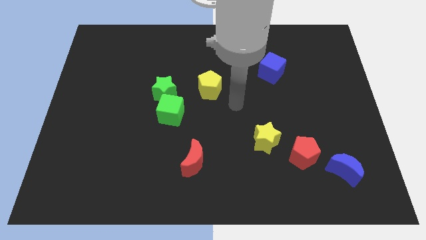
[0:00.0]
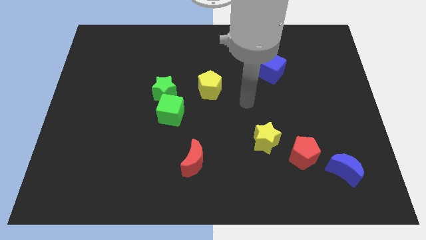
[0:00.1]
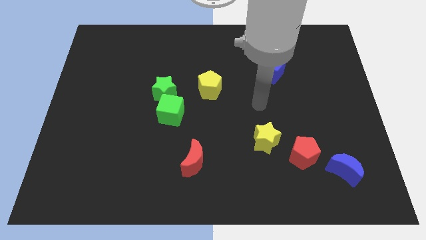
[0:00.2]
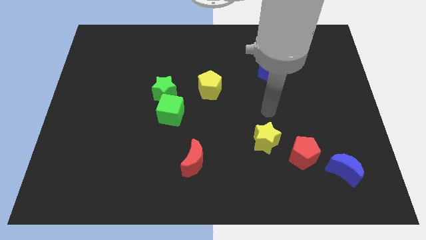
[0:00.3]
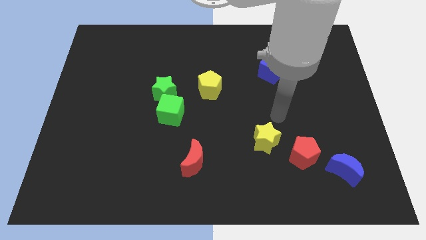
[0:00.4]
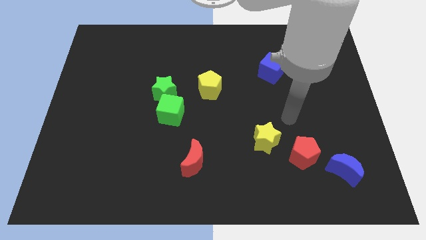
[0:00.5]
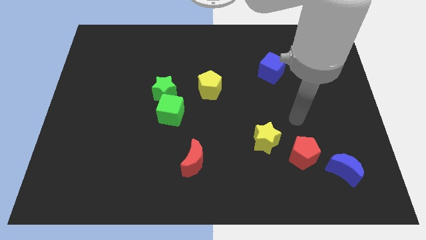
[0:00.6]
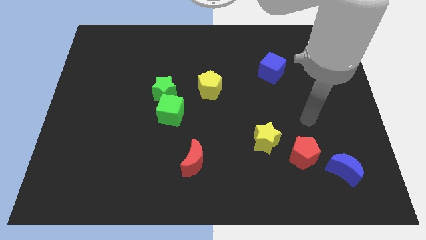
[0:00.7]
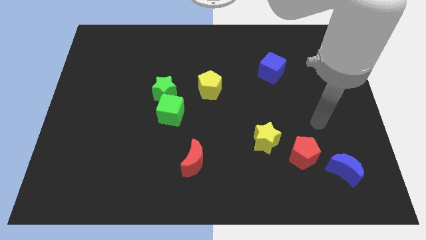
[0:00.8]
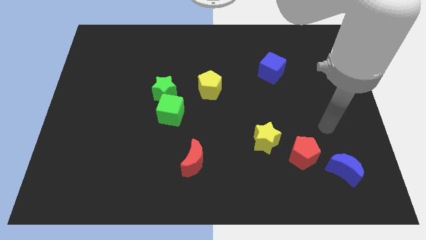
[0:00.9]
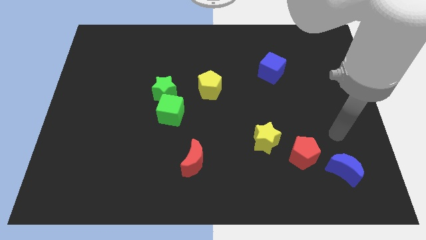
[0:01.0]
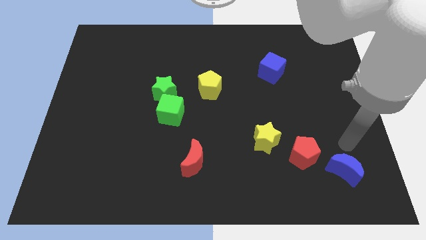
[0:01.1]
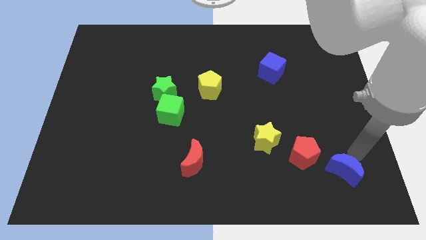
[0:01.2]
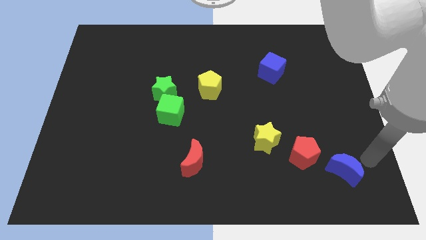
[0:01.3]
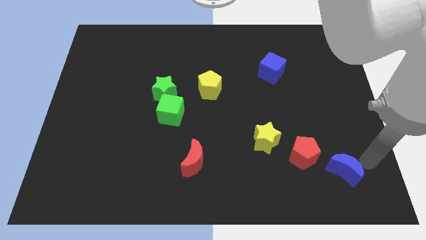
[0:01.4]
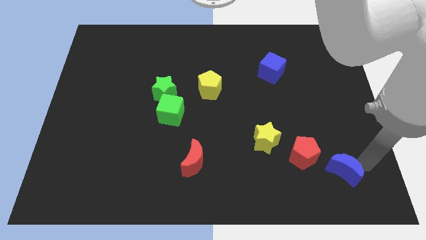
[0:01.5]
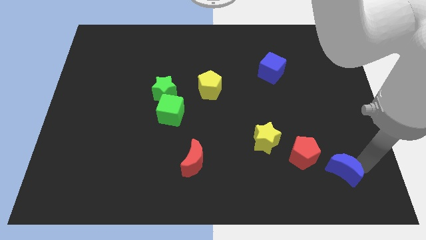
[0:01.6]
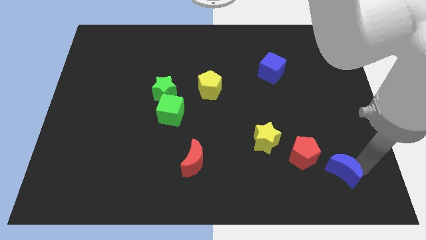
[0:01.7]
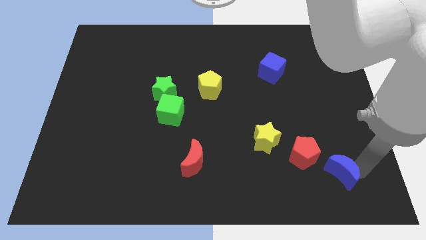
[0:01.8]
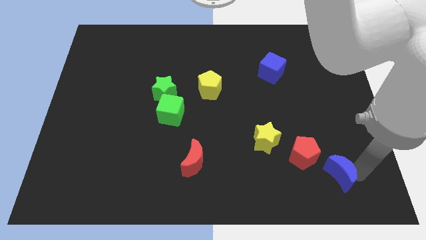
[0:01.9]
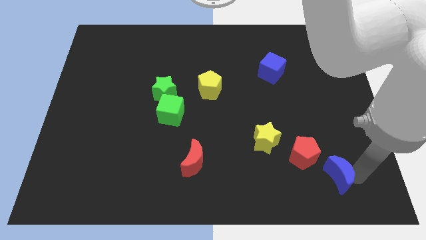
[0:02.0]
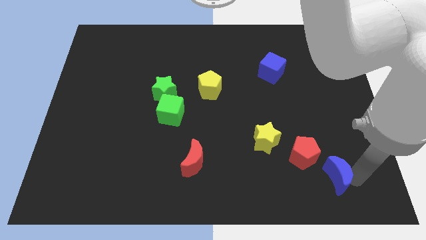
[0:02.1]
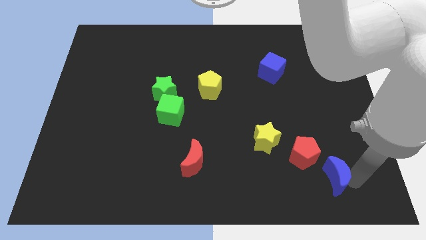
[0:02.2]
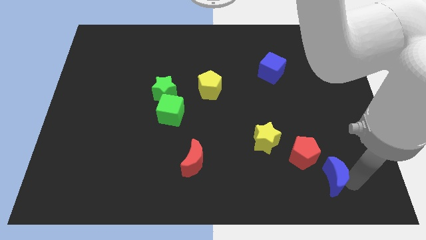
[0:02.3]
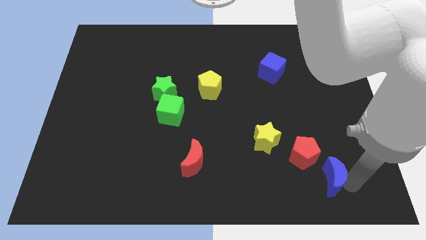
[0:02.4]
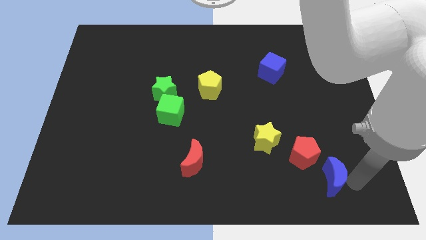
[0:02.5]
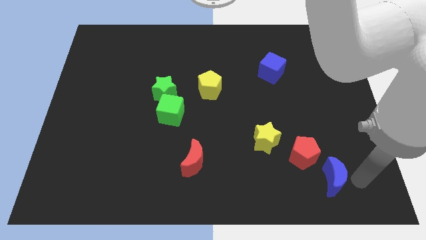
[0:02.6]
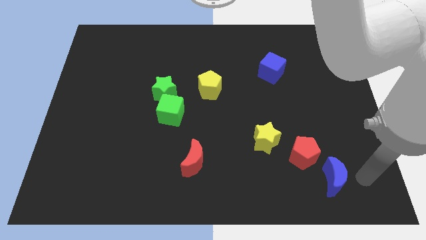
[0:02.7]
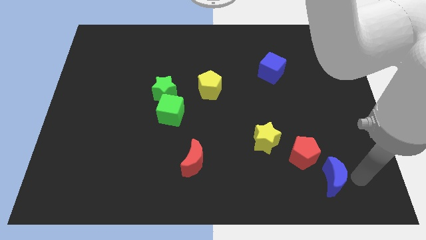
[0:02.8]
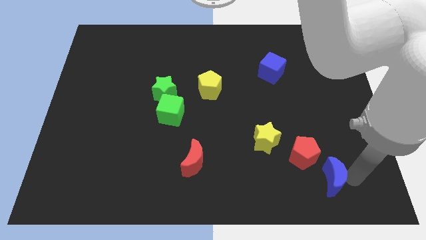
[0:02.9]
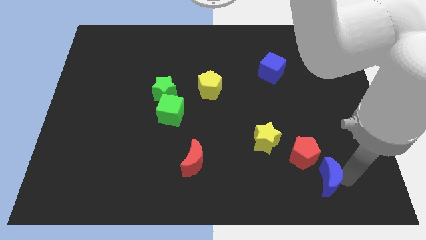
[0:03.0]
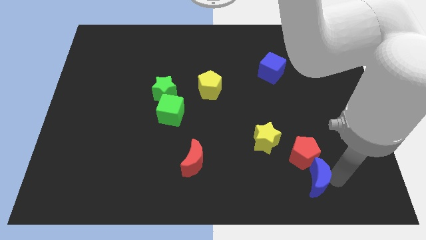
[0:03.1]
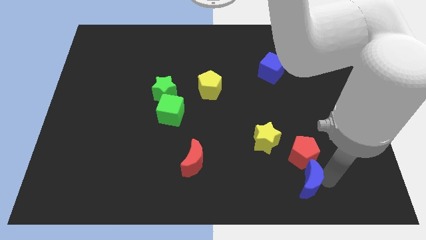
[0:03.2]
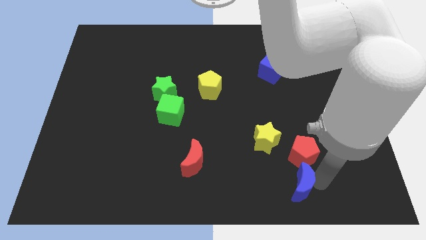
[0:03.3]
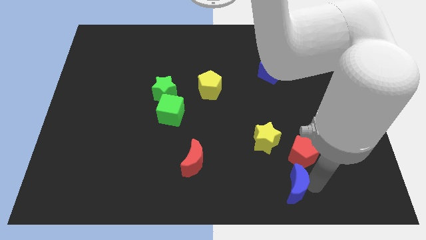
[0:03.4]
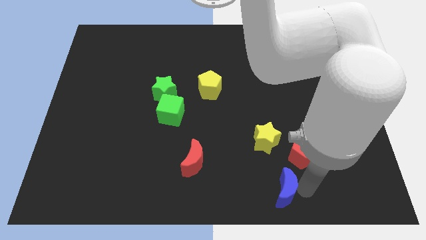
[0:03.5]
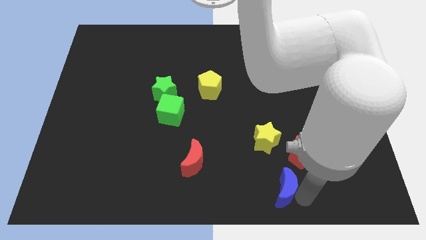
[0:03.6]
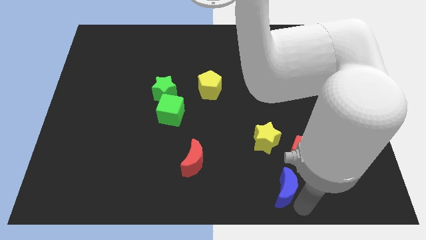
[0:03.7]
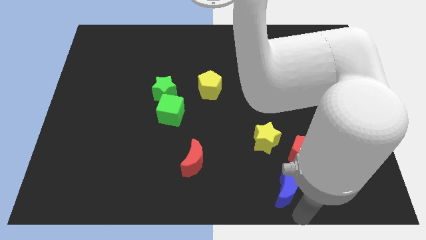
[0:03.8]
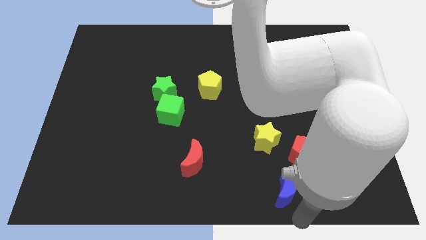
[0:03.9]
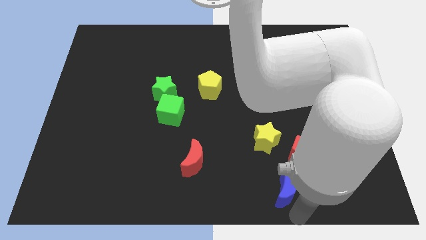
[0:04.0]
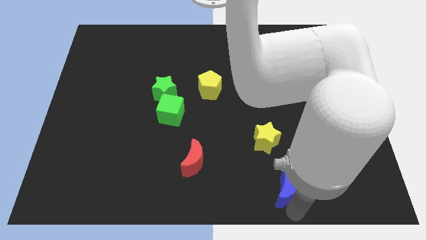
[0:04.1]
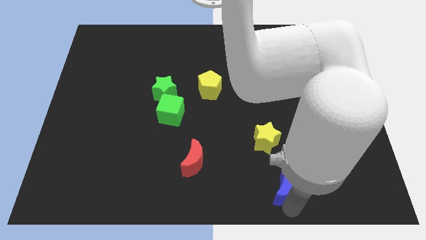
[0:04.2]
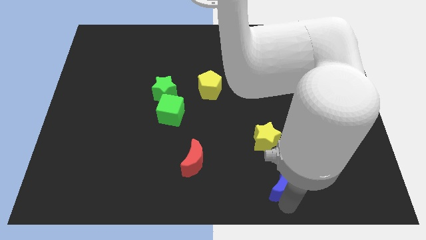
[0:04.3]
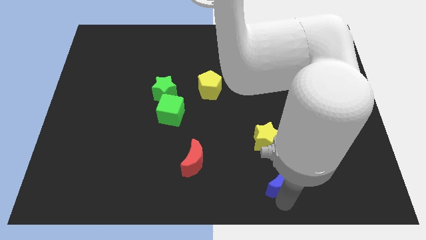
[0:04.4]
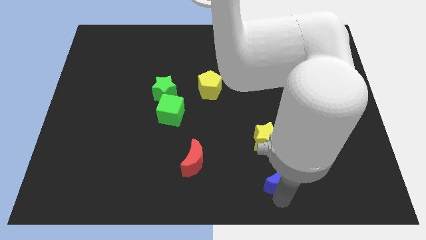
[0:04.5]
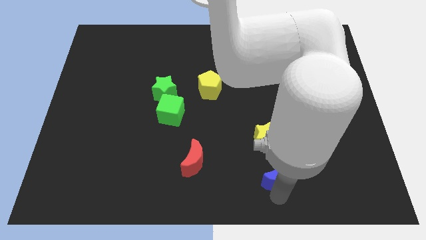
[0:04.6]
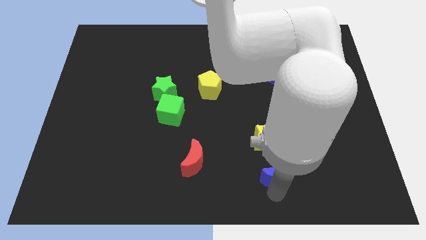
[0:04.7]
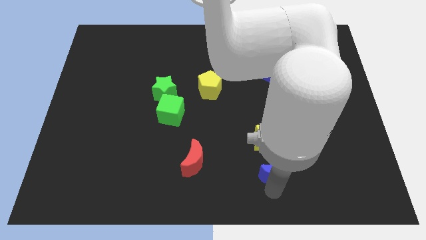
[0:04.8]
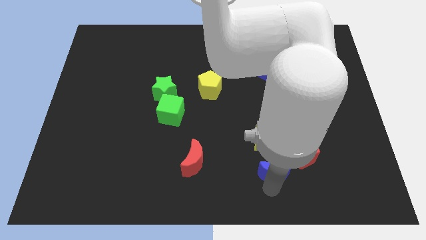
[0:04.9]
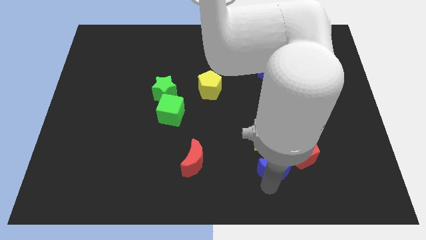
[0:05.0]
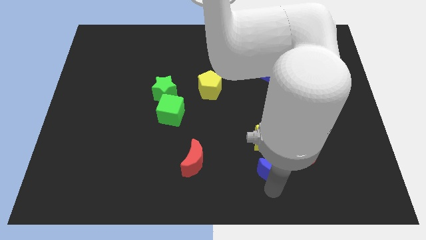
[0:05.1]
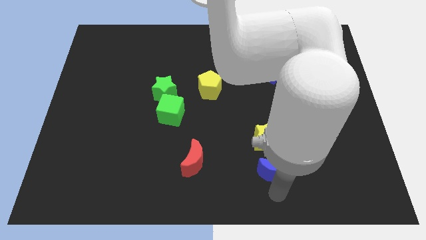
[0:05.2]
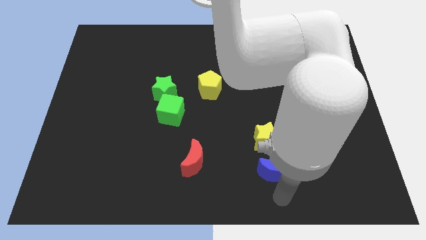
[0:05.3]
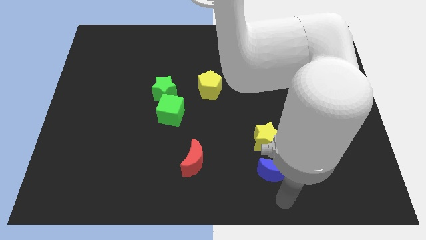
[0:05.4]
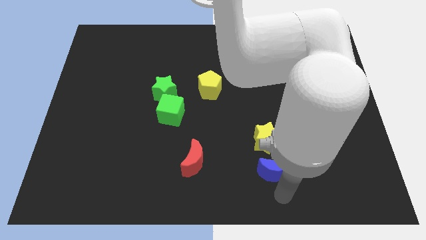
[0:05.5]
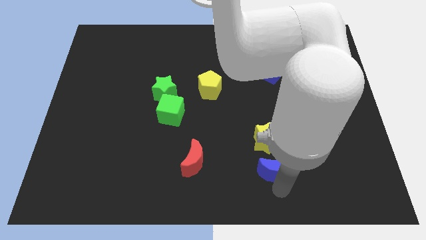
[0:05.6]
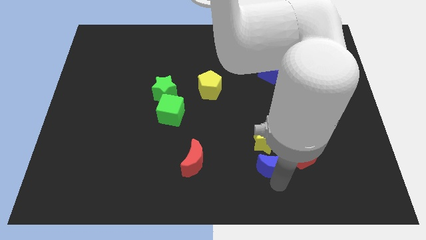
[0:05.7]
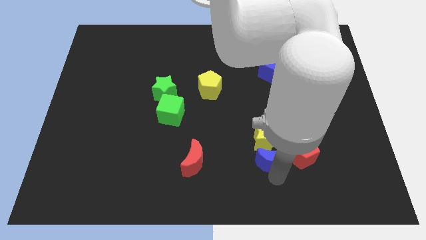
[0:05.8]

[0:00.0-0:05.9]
put the blue moon towards the yellow star

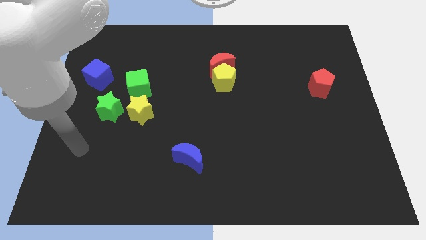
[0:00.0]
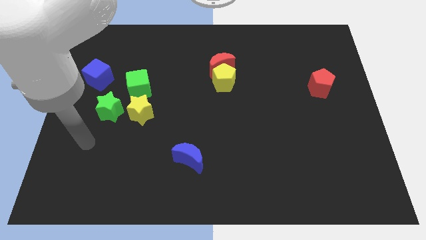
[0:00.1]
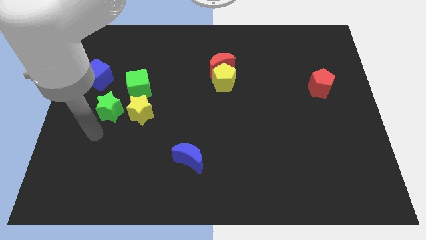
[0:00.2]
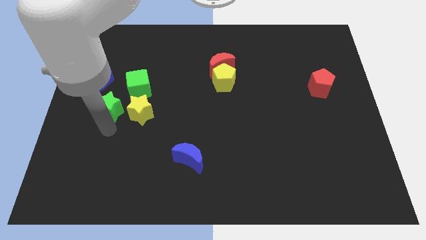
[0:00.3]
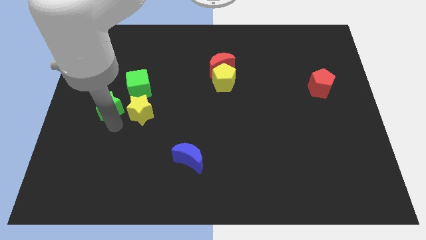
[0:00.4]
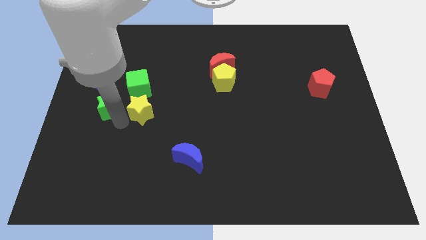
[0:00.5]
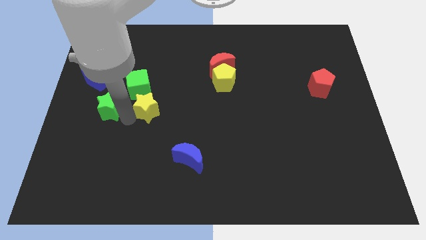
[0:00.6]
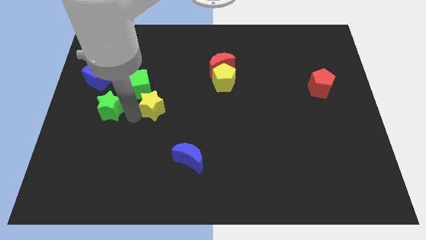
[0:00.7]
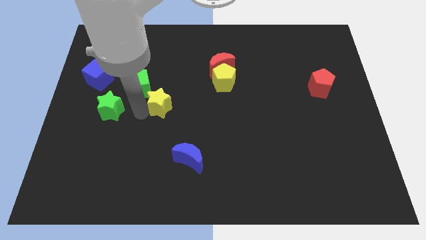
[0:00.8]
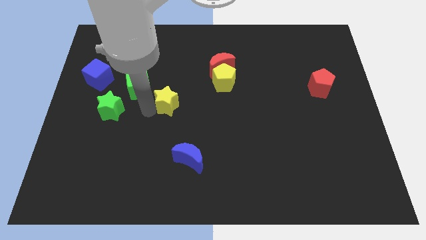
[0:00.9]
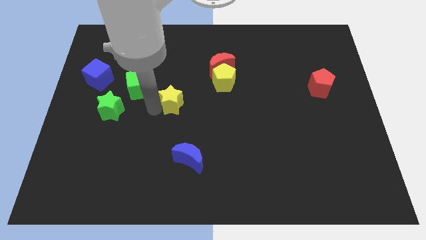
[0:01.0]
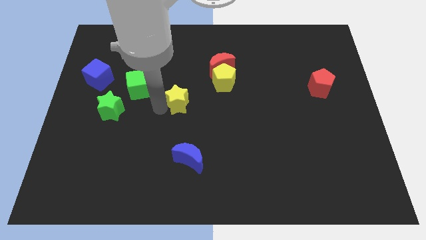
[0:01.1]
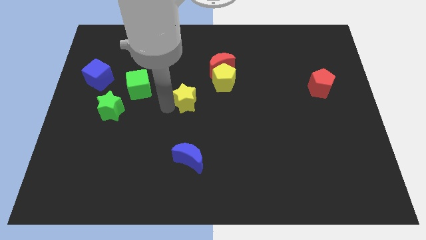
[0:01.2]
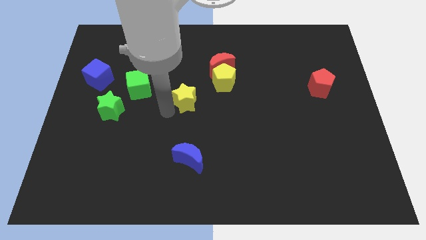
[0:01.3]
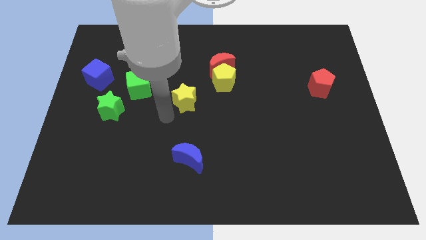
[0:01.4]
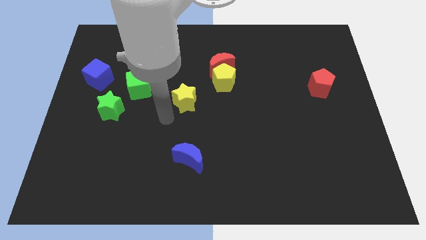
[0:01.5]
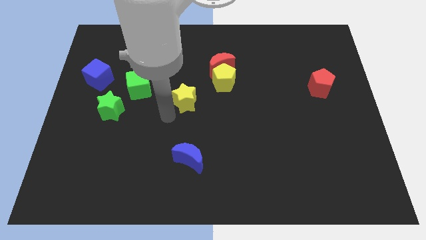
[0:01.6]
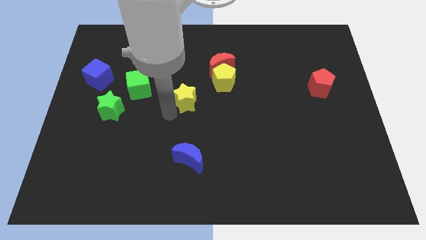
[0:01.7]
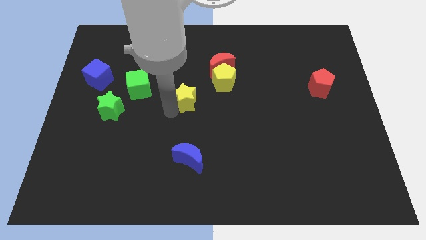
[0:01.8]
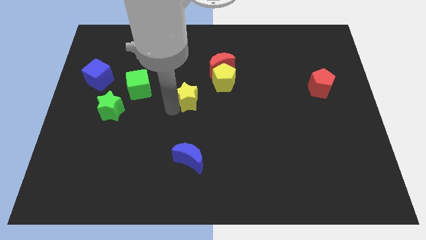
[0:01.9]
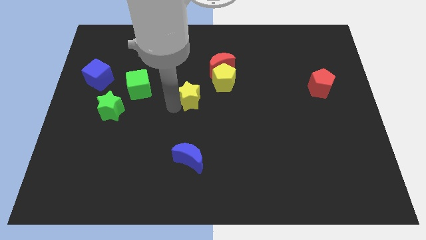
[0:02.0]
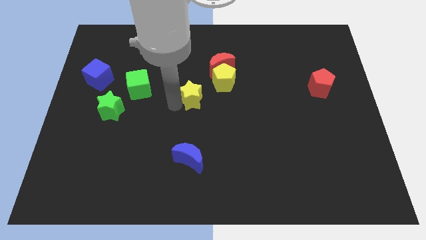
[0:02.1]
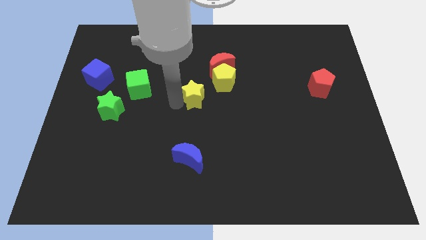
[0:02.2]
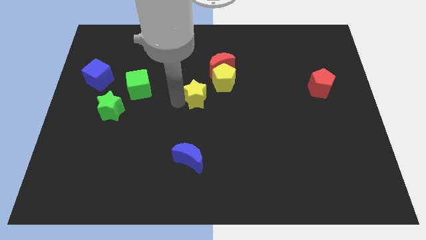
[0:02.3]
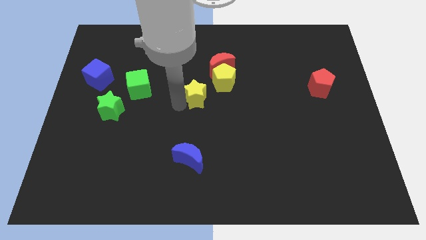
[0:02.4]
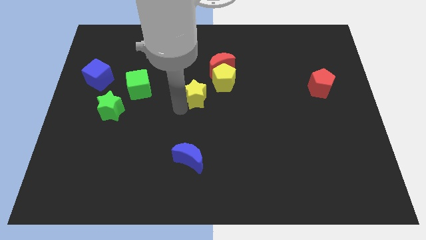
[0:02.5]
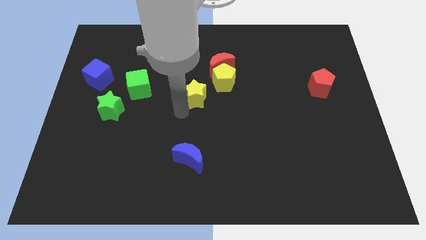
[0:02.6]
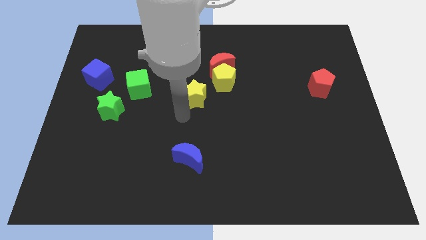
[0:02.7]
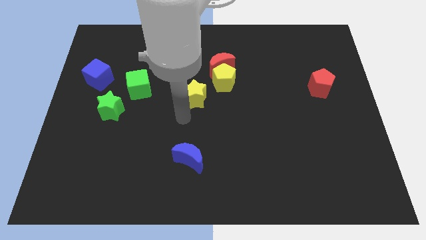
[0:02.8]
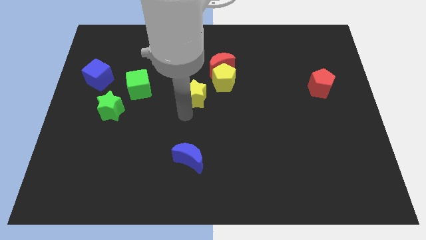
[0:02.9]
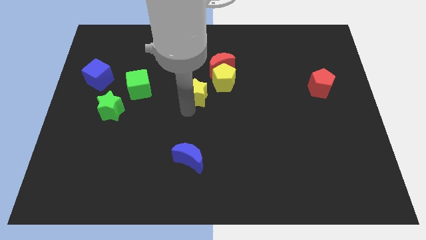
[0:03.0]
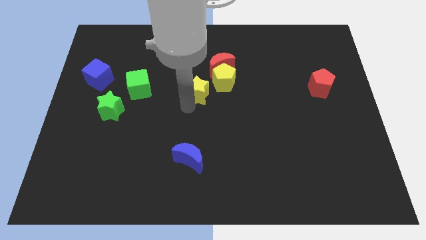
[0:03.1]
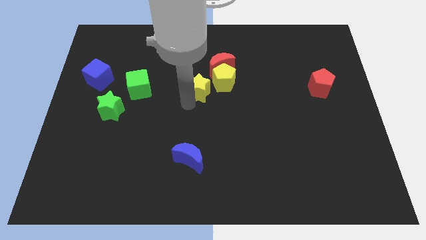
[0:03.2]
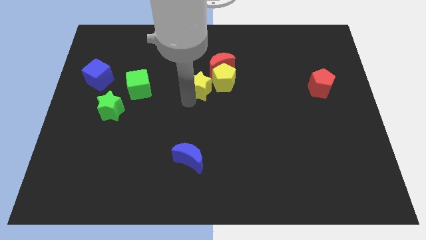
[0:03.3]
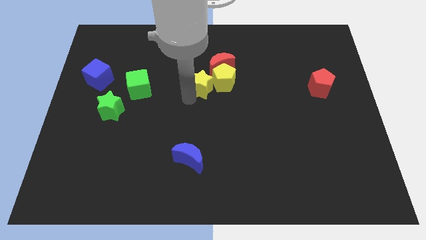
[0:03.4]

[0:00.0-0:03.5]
move the yellow star towards the yellow pentagon
